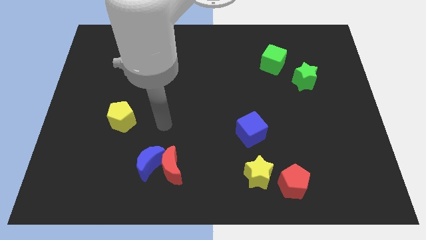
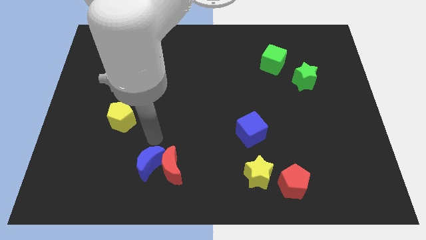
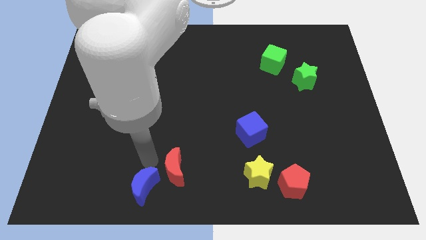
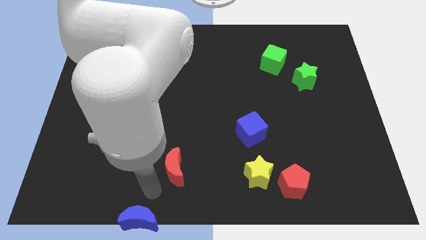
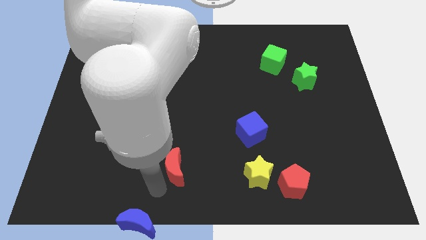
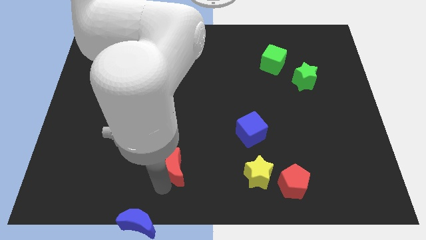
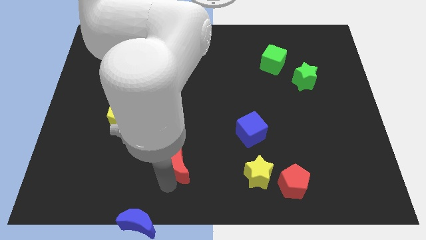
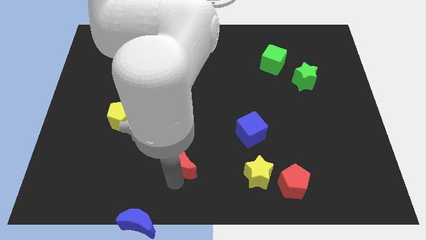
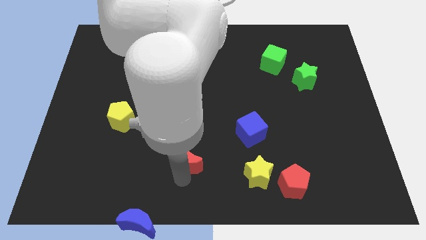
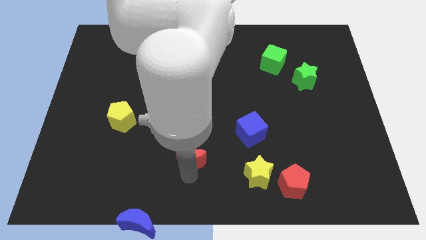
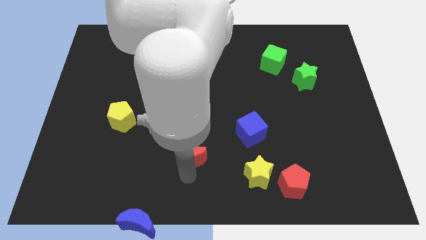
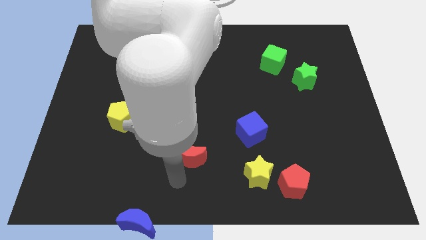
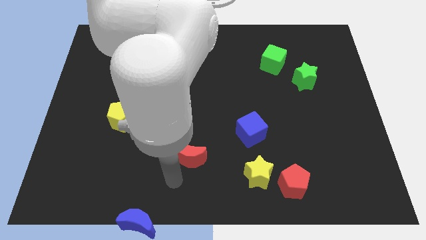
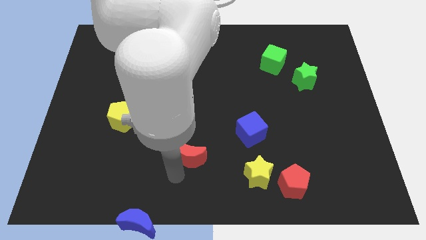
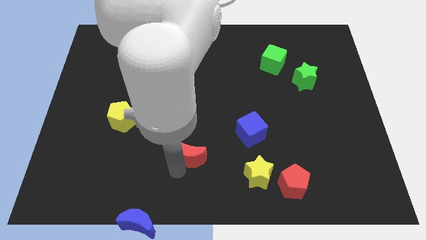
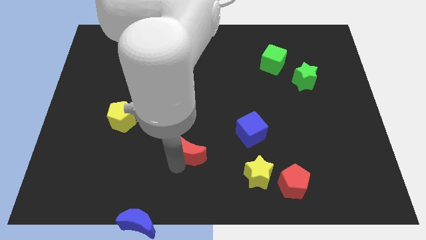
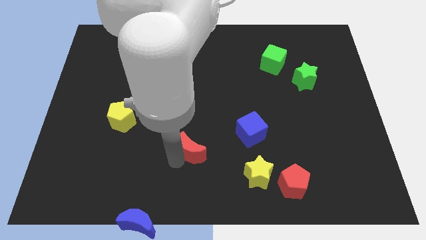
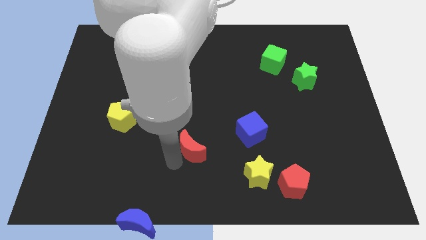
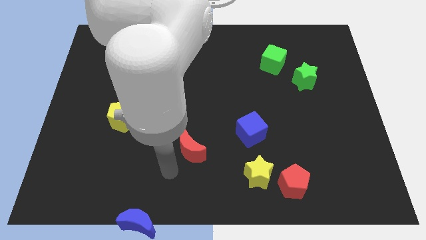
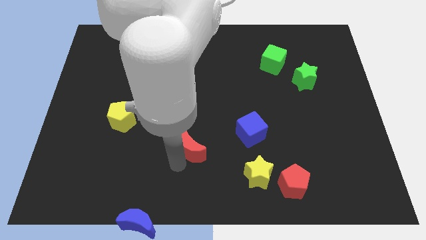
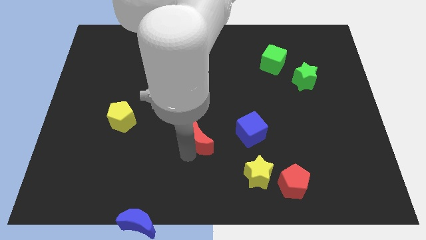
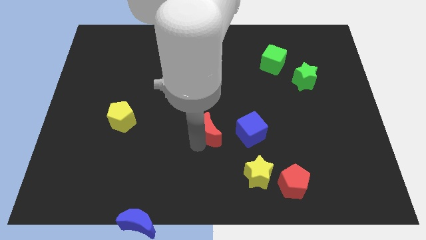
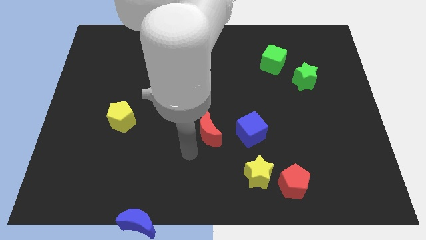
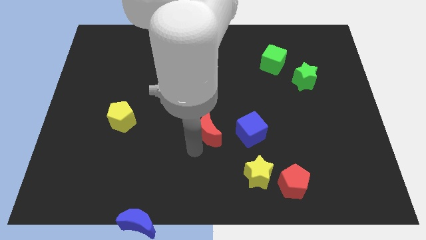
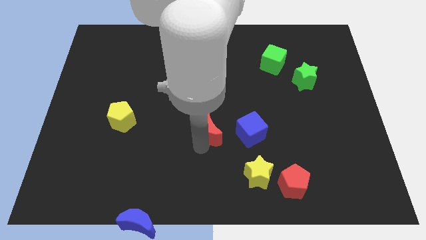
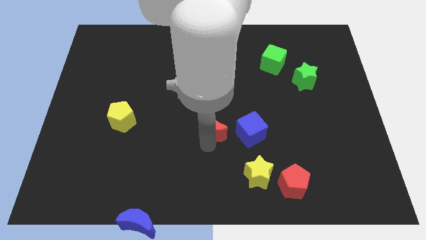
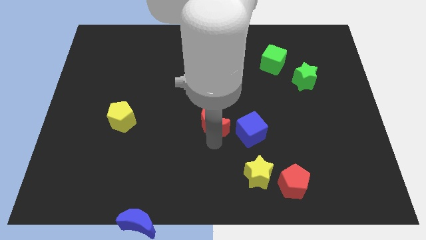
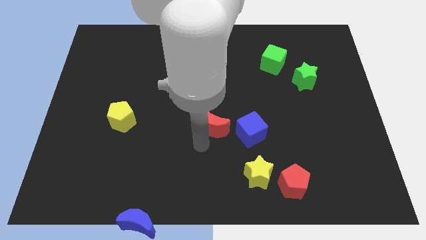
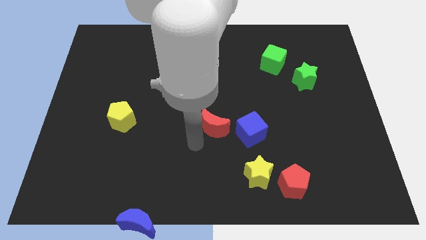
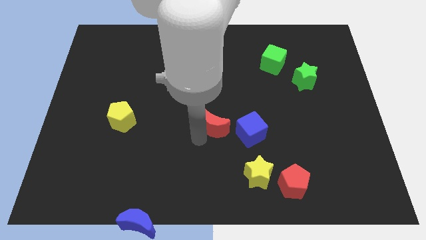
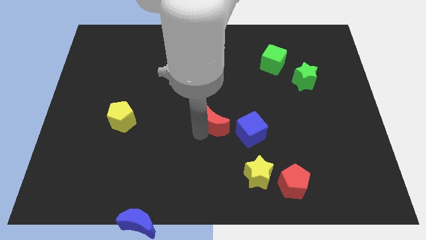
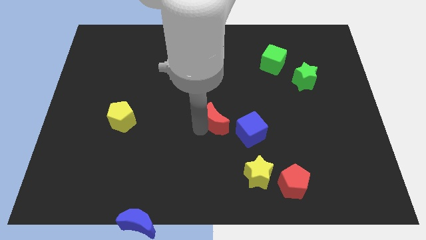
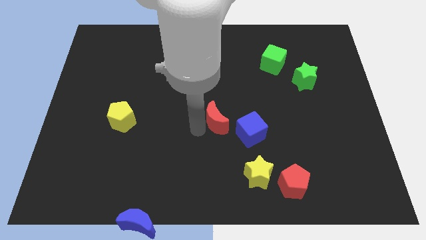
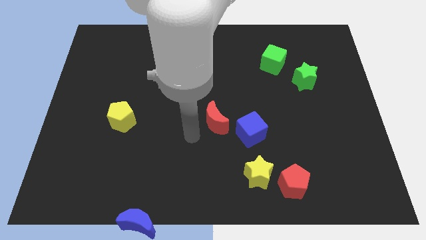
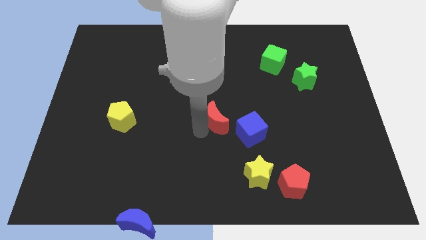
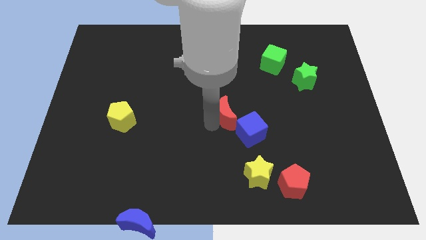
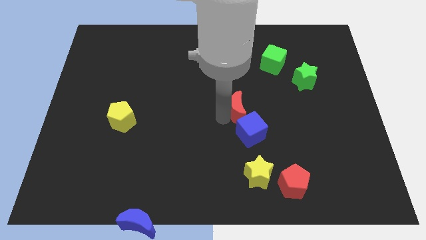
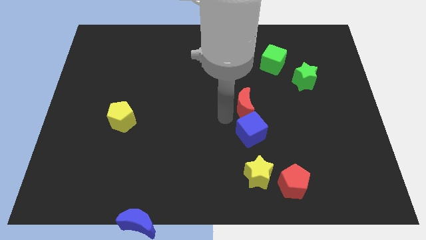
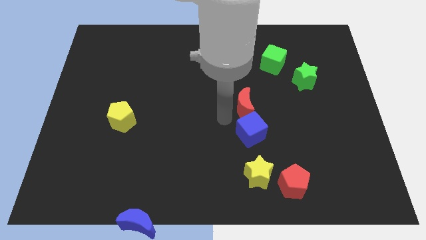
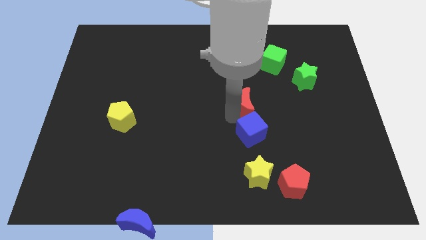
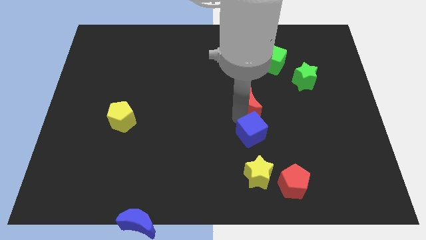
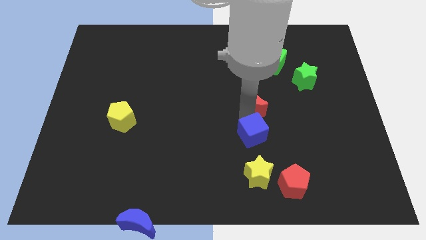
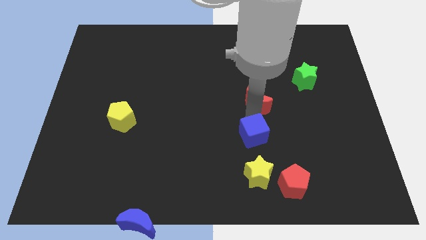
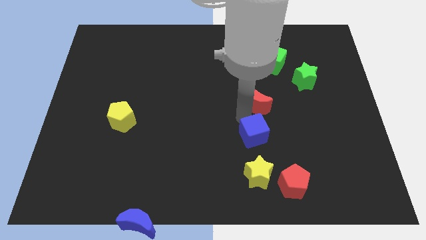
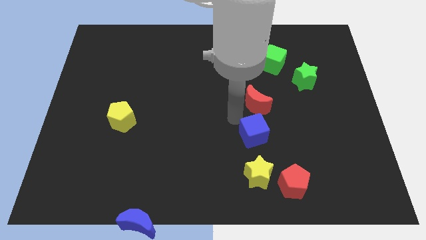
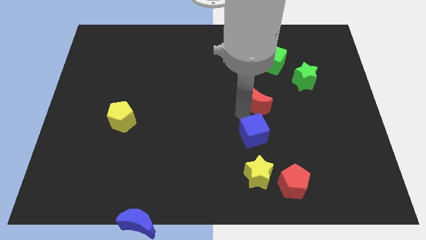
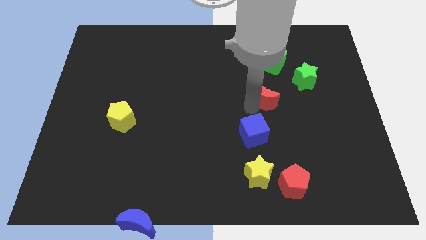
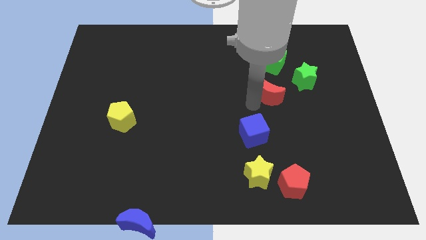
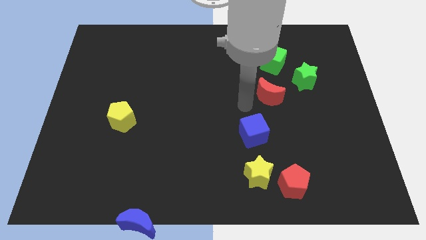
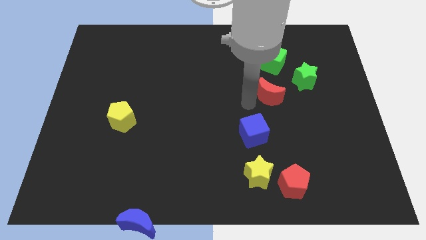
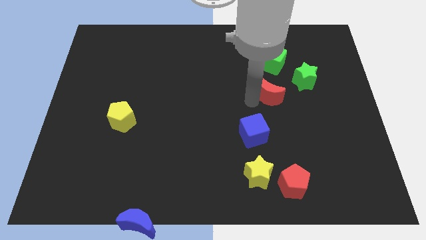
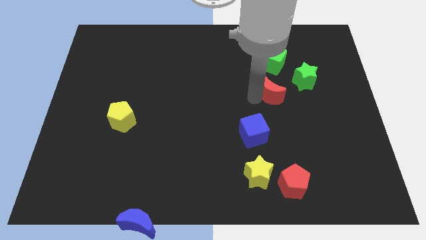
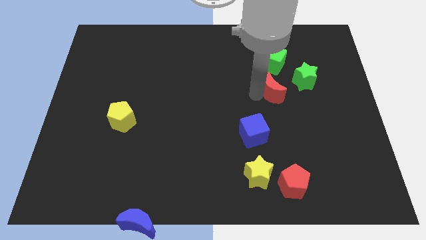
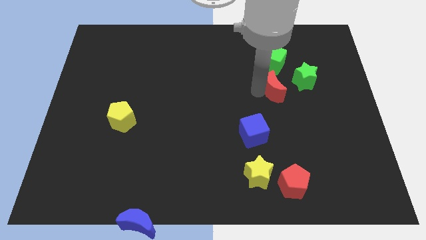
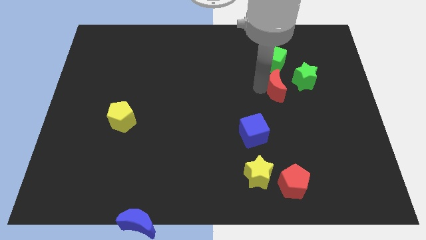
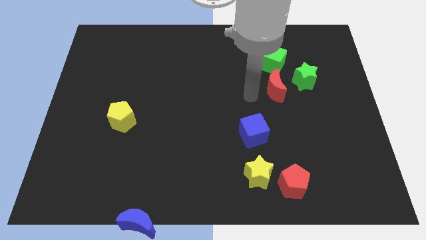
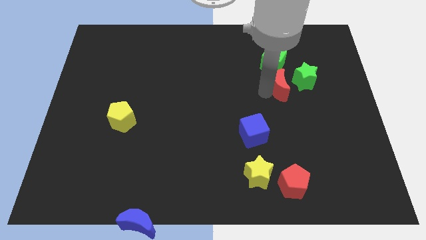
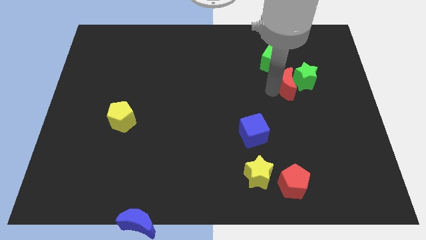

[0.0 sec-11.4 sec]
move the red moon next to the green star

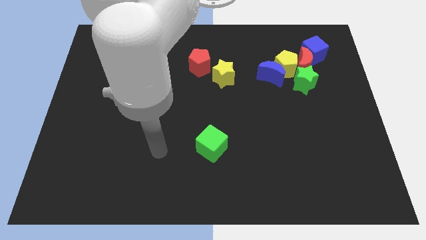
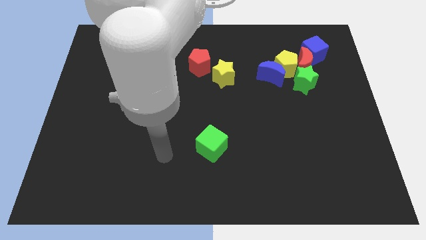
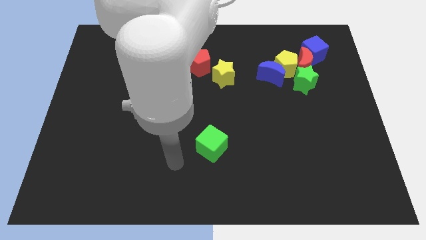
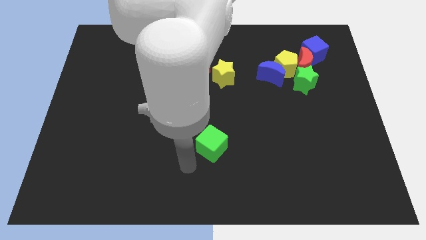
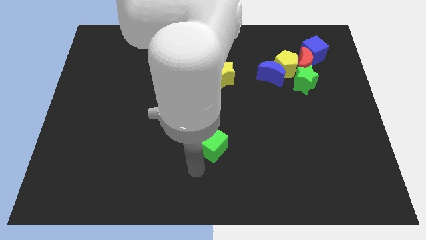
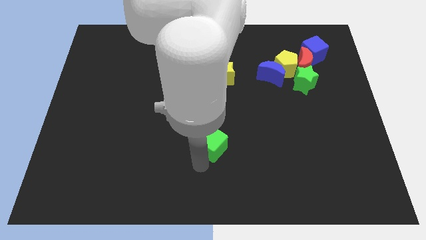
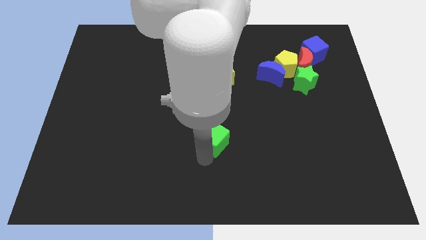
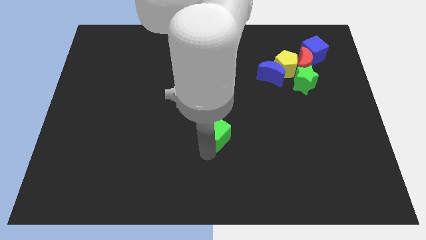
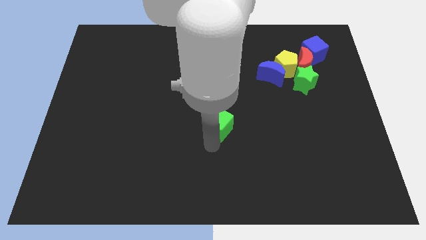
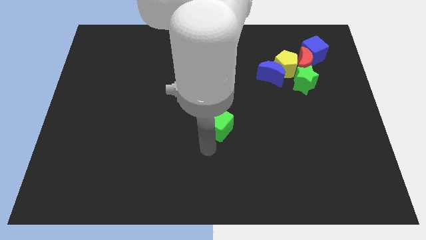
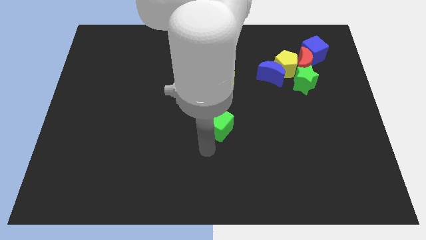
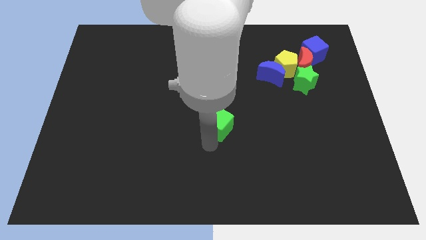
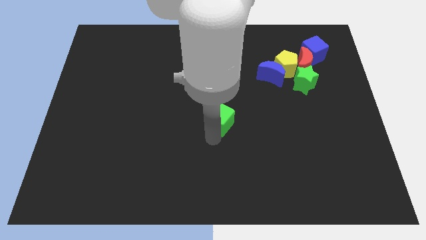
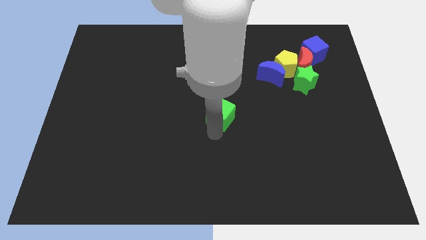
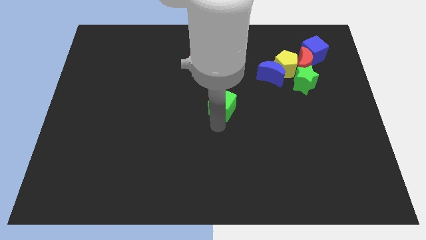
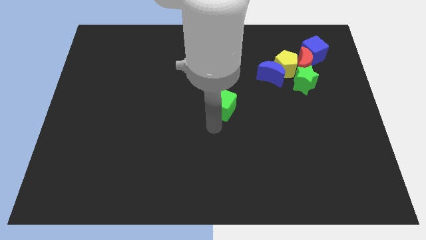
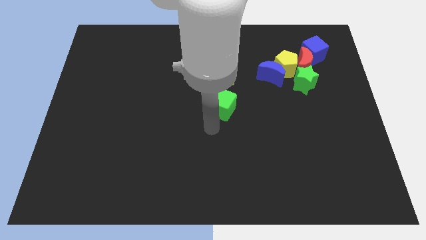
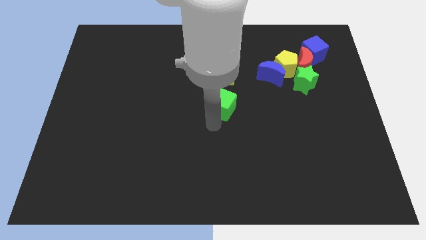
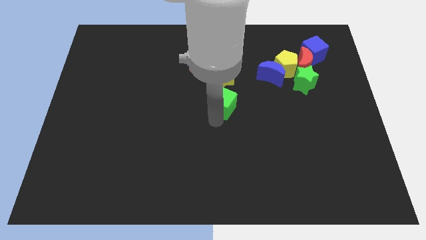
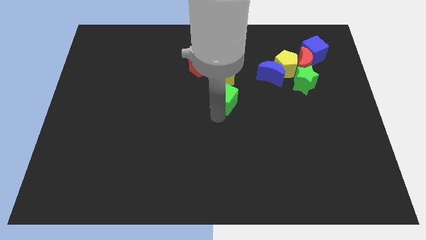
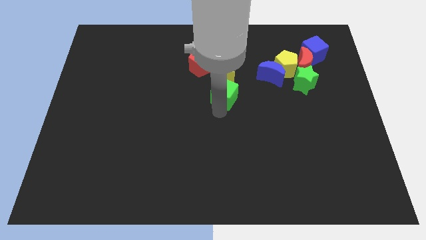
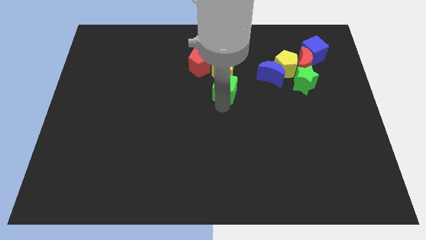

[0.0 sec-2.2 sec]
move the green cube close to the yellow star
